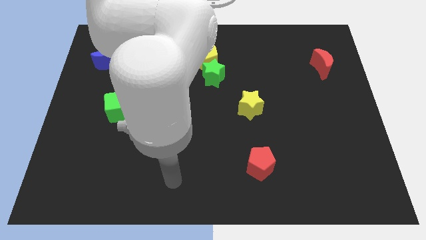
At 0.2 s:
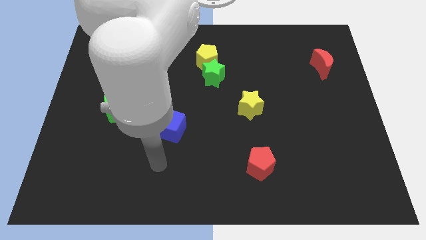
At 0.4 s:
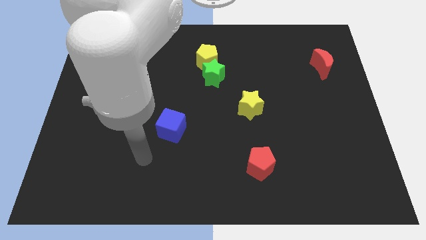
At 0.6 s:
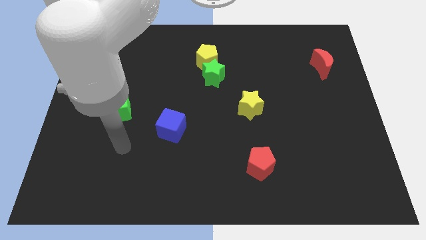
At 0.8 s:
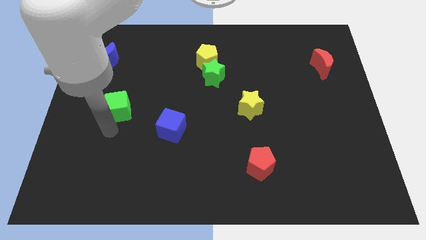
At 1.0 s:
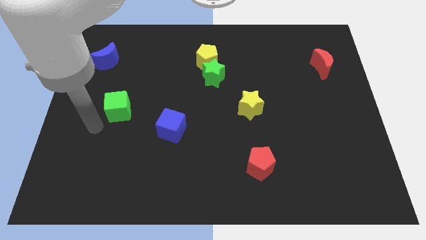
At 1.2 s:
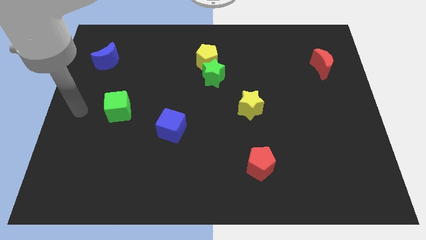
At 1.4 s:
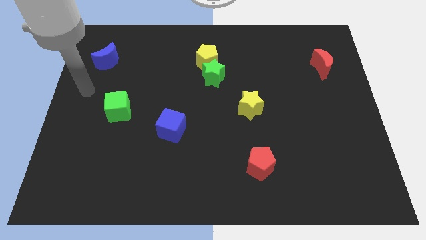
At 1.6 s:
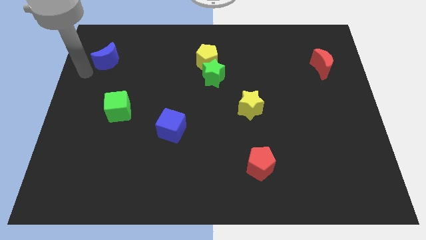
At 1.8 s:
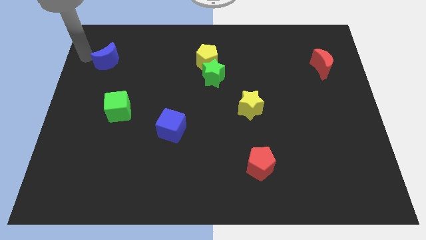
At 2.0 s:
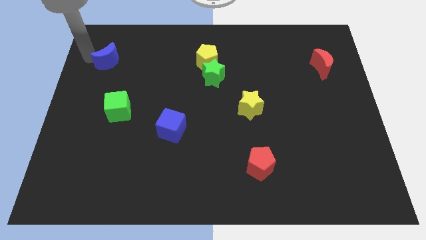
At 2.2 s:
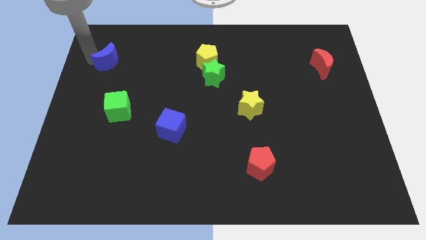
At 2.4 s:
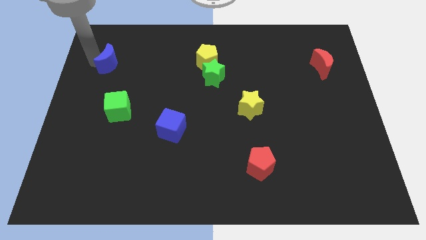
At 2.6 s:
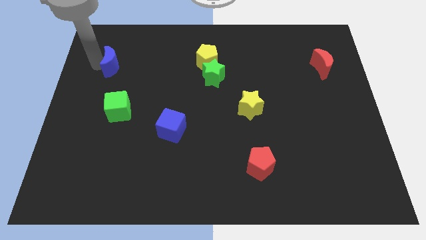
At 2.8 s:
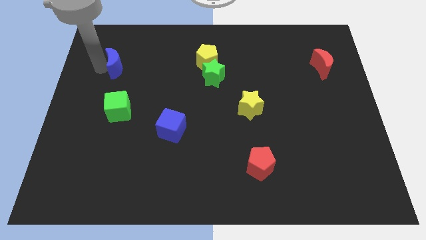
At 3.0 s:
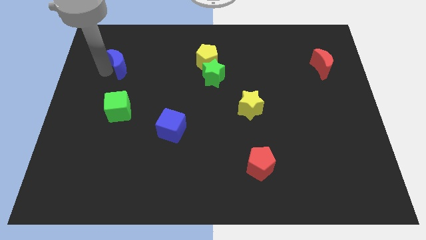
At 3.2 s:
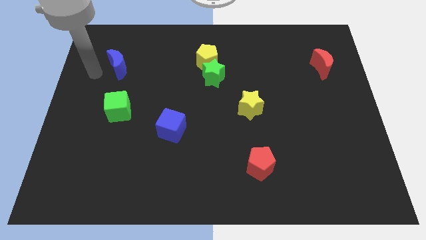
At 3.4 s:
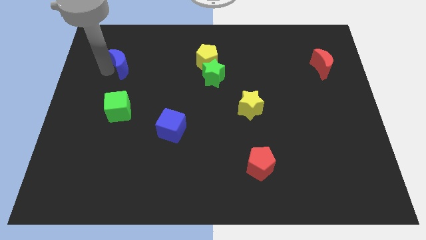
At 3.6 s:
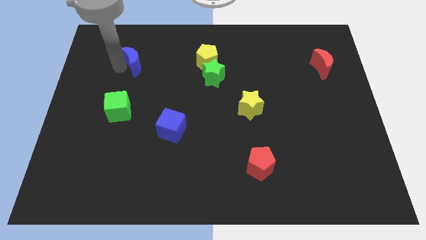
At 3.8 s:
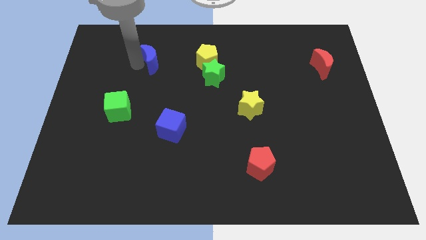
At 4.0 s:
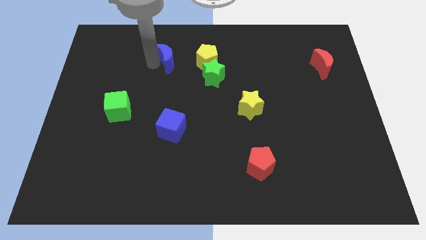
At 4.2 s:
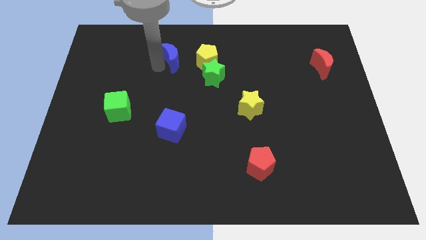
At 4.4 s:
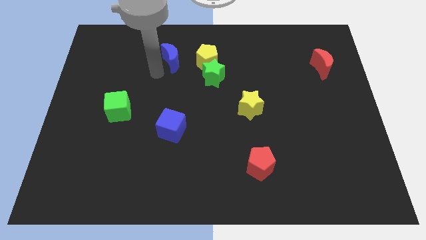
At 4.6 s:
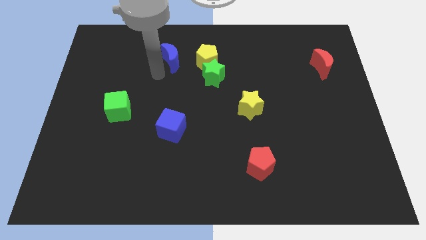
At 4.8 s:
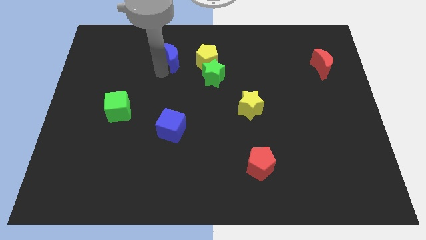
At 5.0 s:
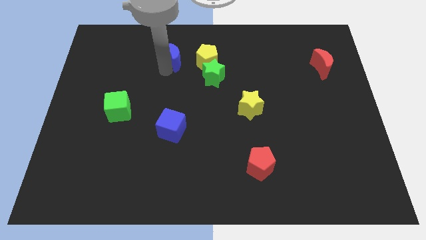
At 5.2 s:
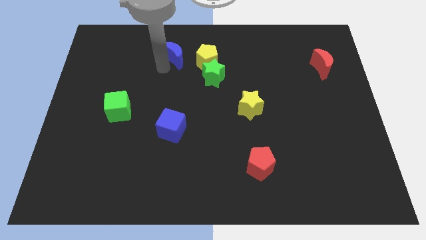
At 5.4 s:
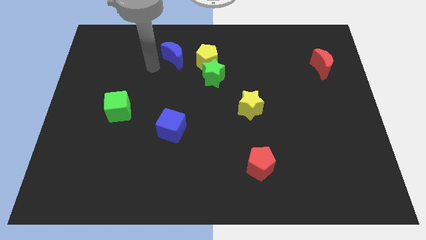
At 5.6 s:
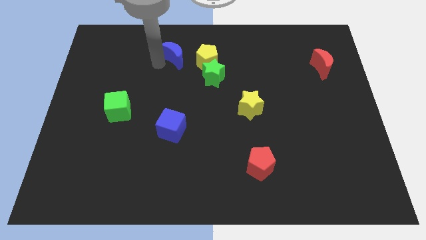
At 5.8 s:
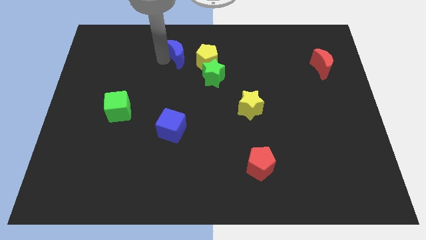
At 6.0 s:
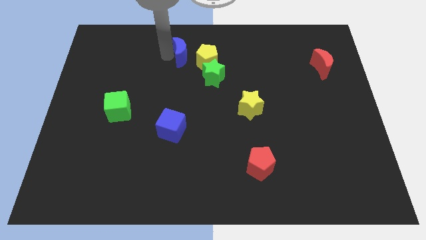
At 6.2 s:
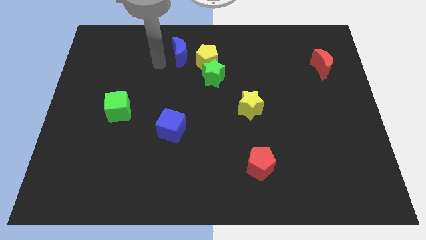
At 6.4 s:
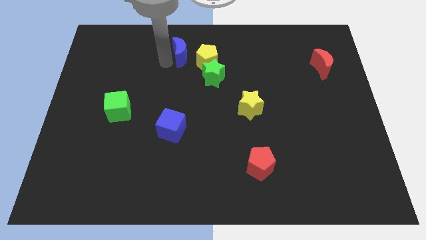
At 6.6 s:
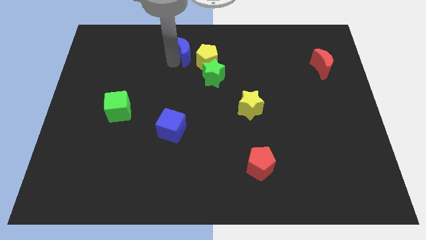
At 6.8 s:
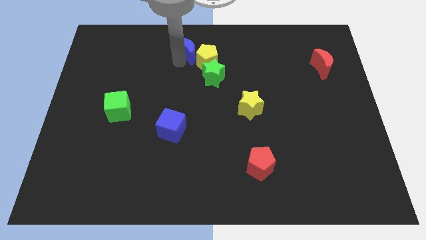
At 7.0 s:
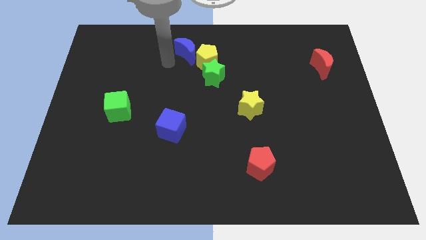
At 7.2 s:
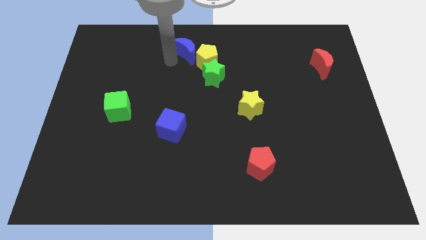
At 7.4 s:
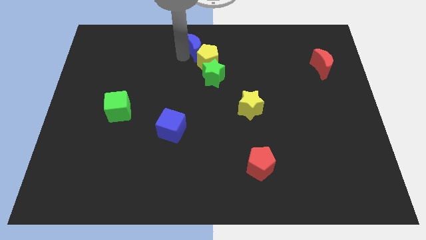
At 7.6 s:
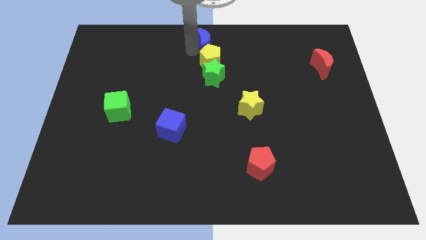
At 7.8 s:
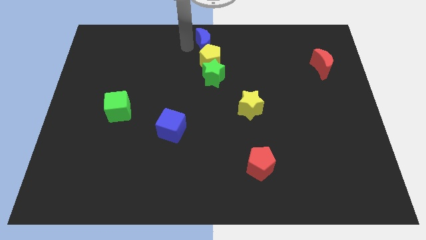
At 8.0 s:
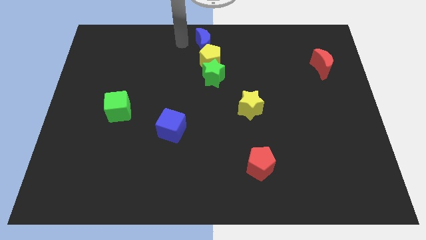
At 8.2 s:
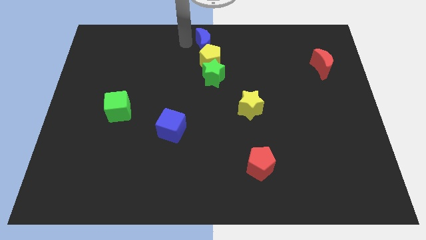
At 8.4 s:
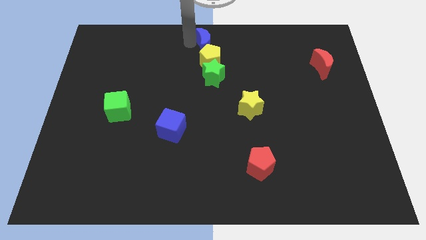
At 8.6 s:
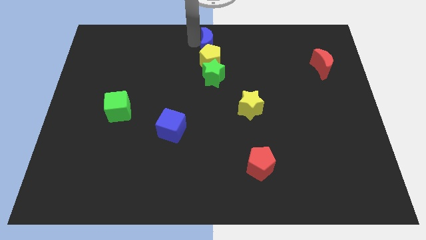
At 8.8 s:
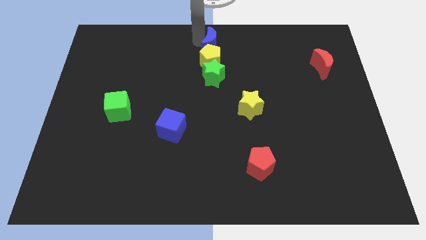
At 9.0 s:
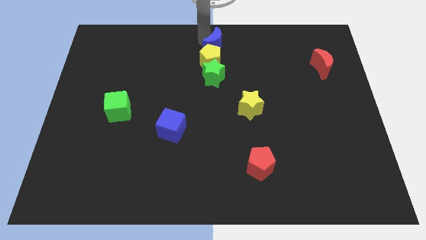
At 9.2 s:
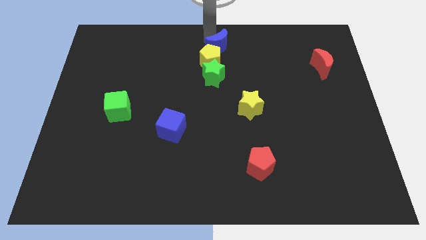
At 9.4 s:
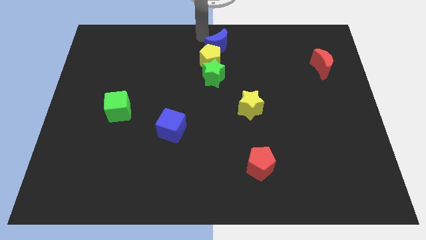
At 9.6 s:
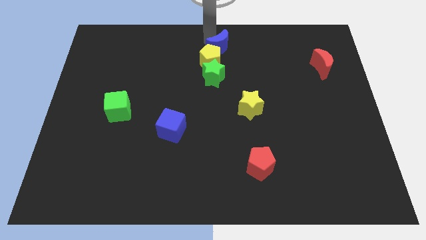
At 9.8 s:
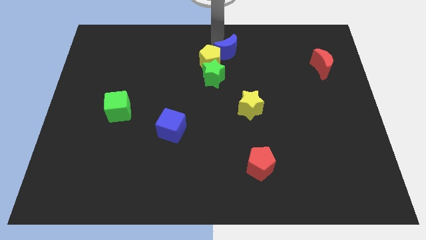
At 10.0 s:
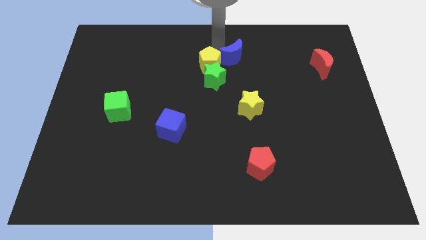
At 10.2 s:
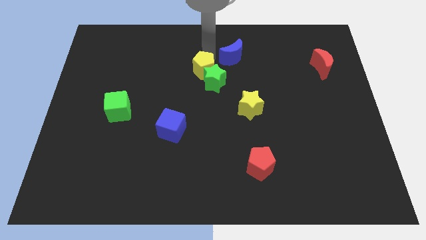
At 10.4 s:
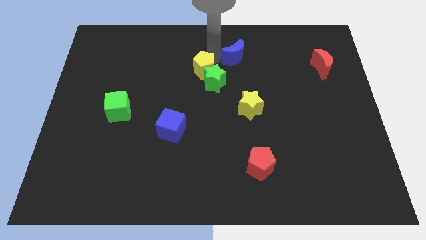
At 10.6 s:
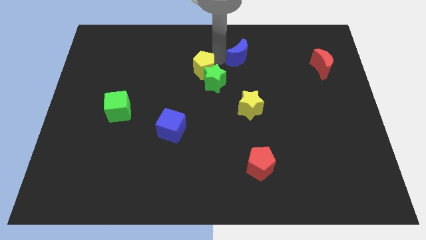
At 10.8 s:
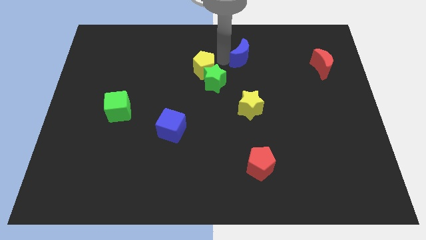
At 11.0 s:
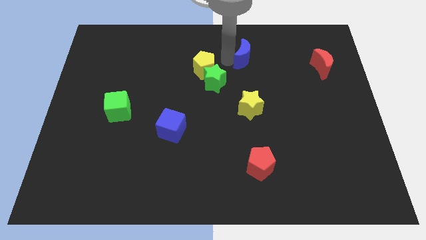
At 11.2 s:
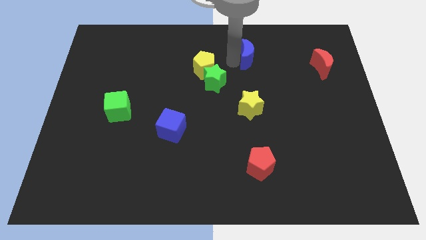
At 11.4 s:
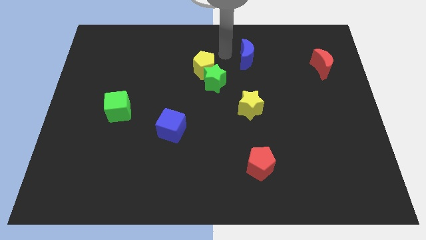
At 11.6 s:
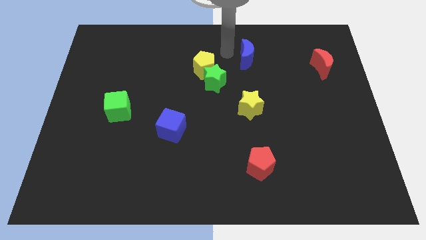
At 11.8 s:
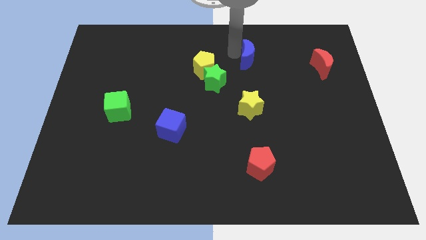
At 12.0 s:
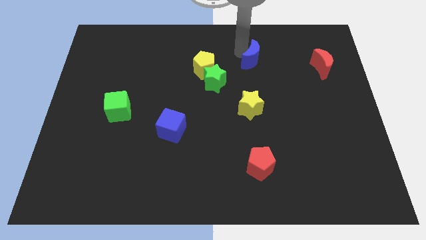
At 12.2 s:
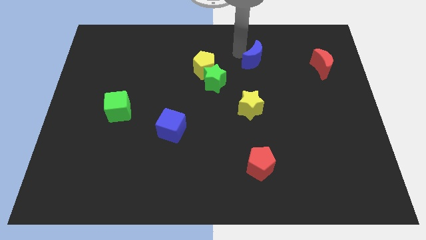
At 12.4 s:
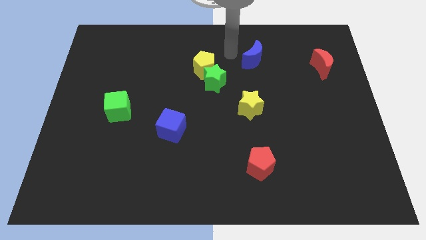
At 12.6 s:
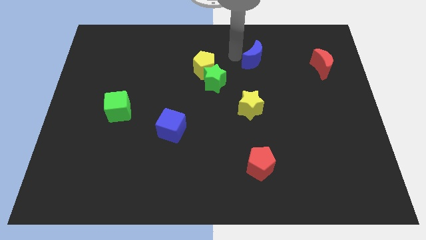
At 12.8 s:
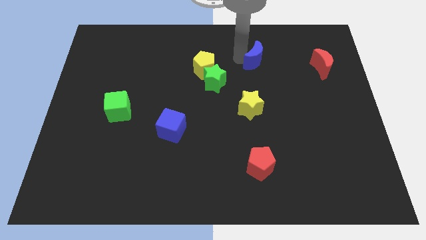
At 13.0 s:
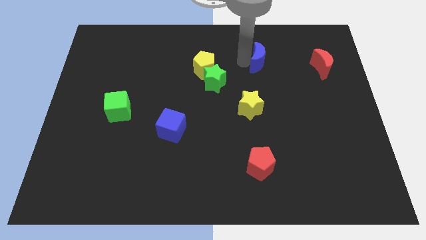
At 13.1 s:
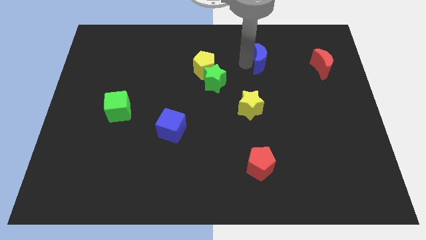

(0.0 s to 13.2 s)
slide the blue moon left of the red moon
